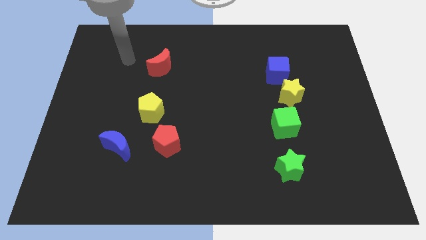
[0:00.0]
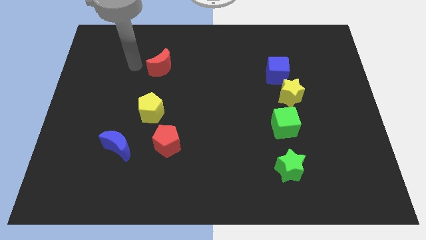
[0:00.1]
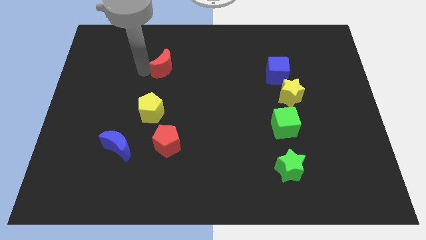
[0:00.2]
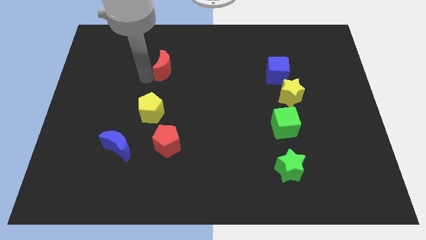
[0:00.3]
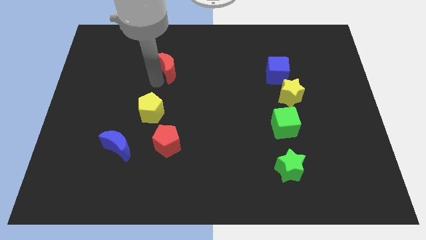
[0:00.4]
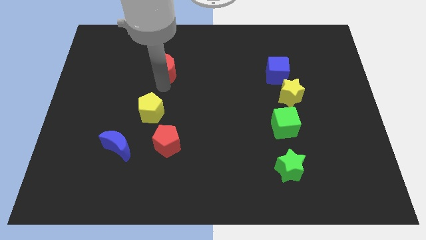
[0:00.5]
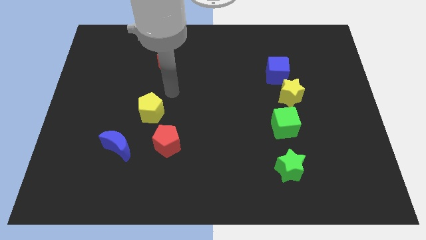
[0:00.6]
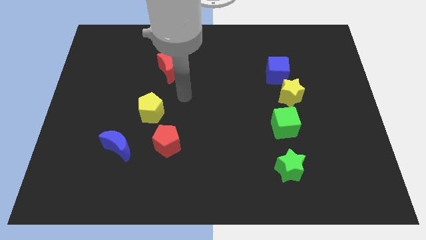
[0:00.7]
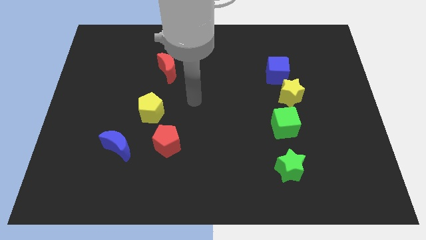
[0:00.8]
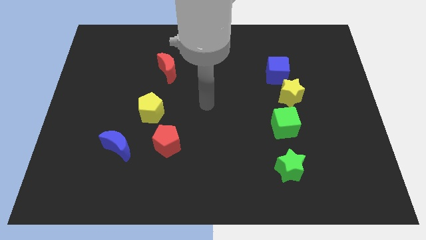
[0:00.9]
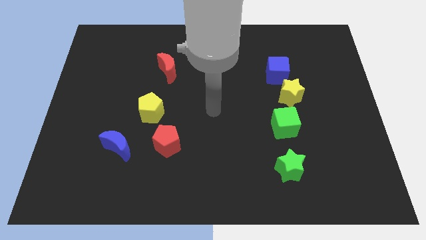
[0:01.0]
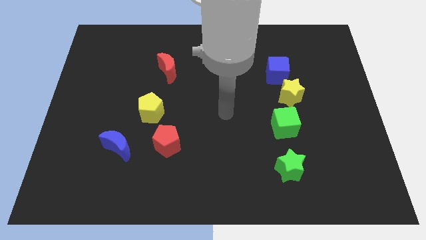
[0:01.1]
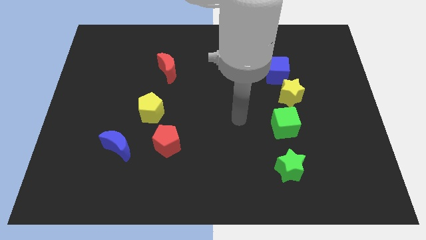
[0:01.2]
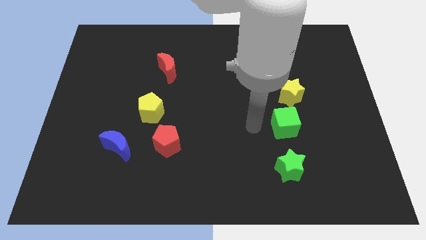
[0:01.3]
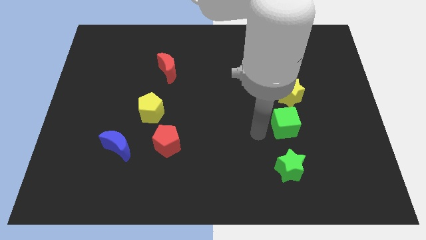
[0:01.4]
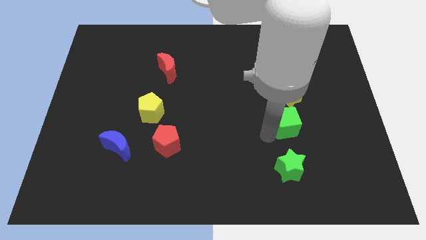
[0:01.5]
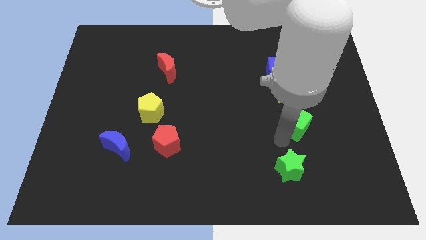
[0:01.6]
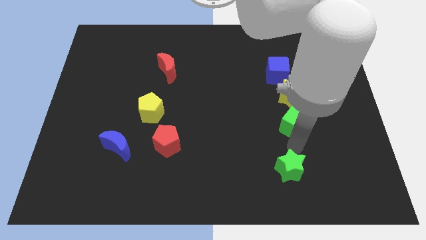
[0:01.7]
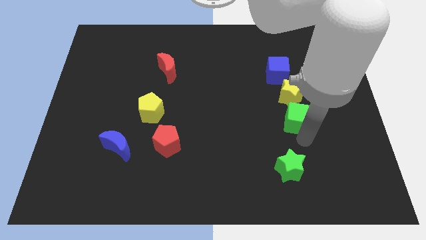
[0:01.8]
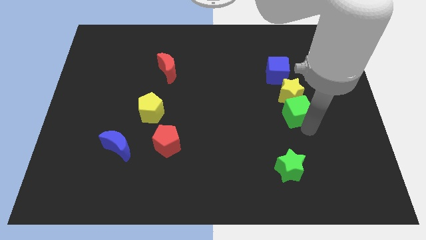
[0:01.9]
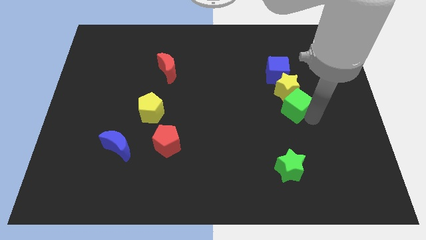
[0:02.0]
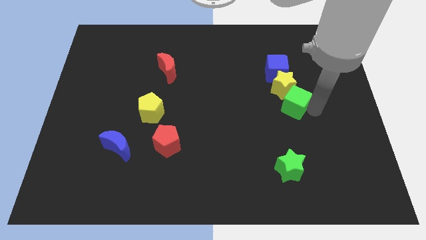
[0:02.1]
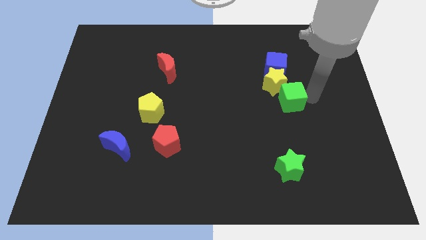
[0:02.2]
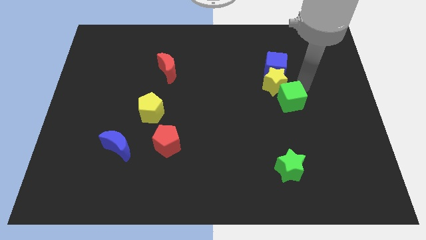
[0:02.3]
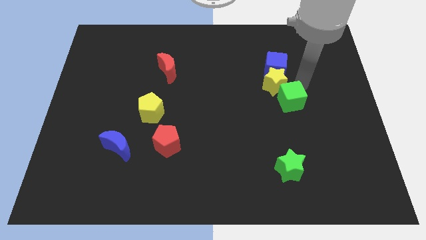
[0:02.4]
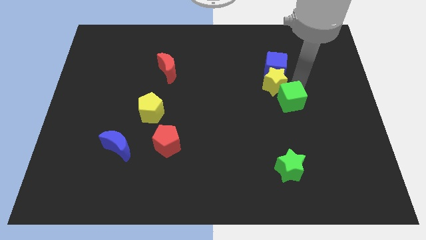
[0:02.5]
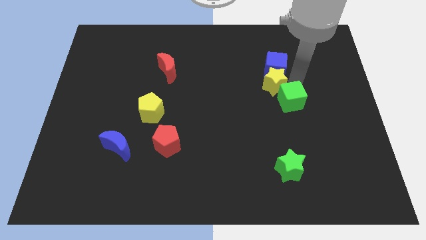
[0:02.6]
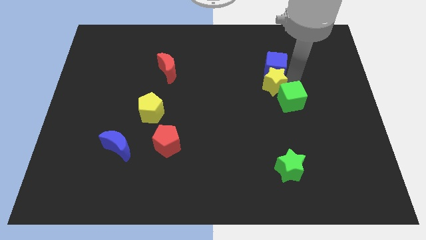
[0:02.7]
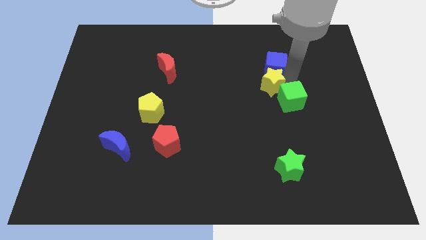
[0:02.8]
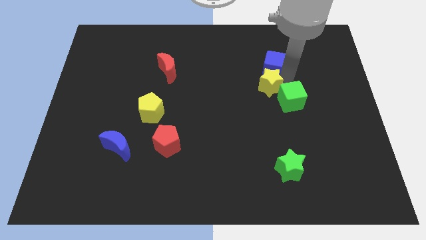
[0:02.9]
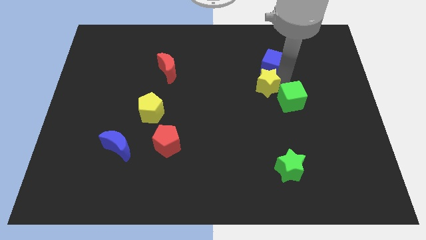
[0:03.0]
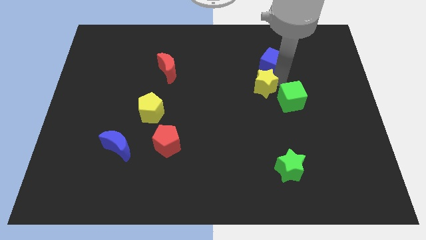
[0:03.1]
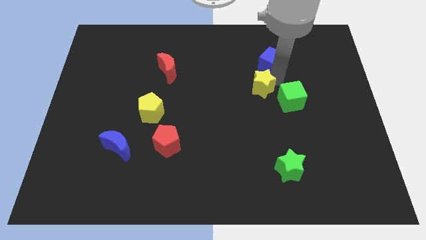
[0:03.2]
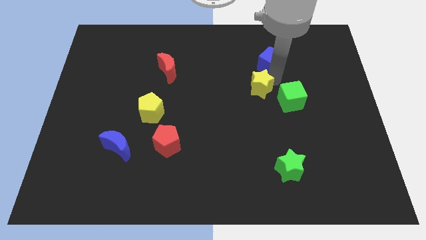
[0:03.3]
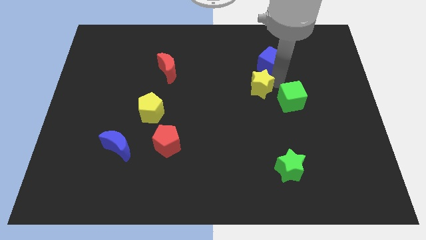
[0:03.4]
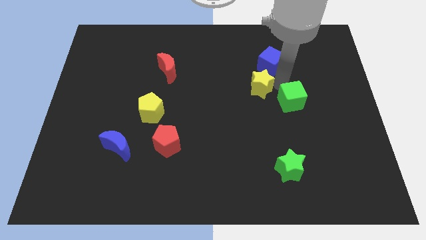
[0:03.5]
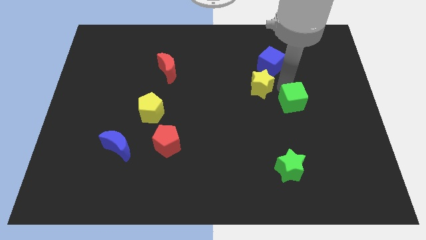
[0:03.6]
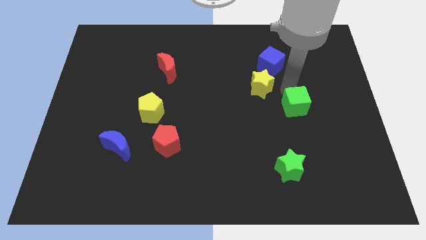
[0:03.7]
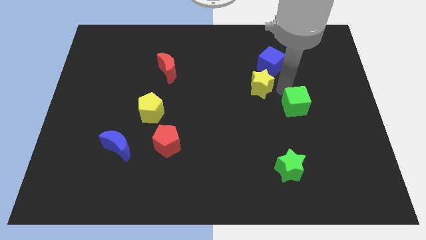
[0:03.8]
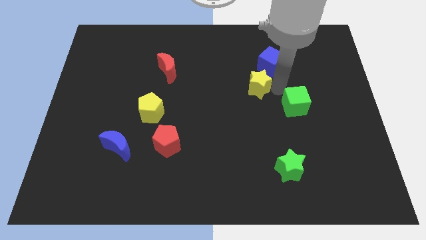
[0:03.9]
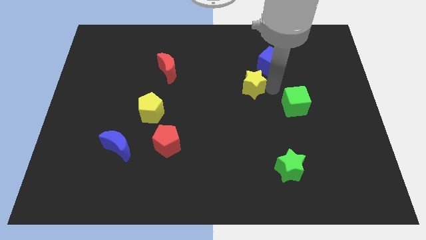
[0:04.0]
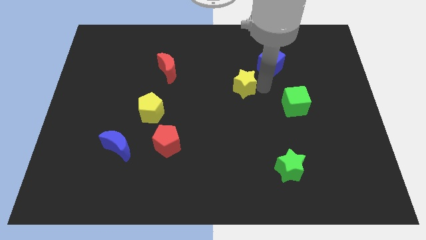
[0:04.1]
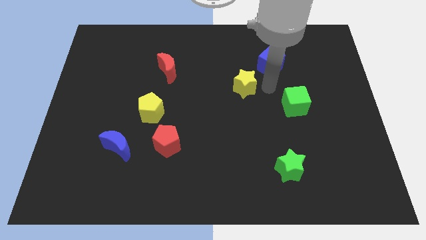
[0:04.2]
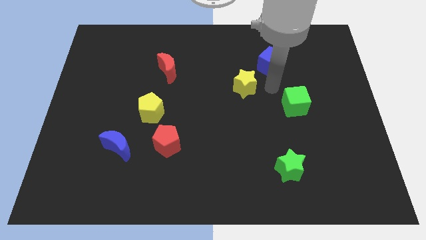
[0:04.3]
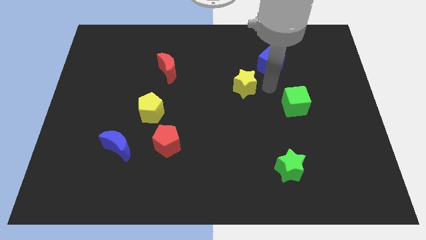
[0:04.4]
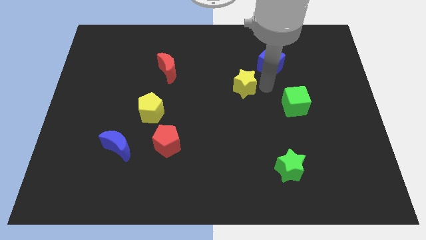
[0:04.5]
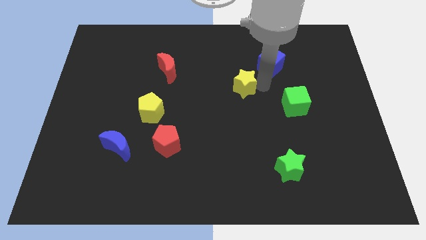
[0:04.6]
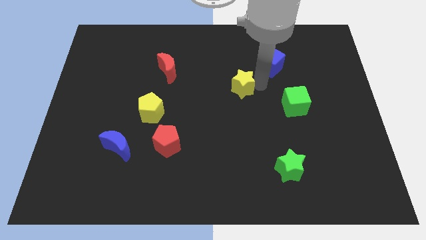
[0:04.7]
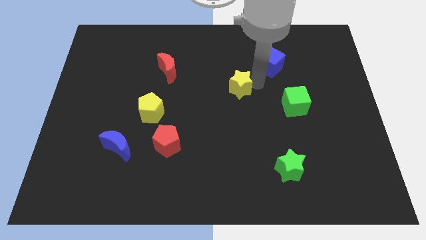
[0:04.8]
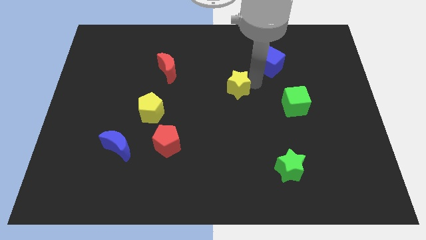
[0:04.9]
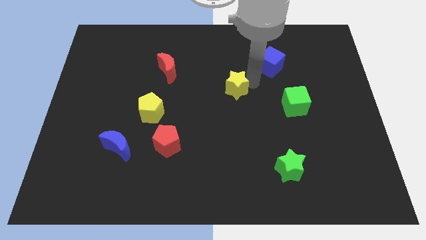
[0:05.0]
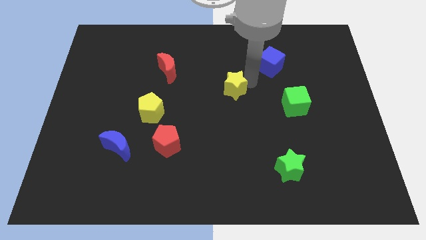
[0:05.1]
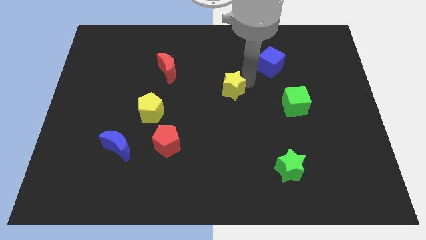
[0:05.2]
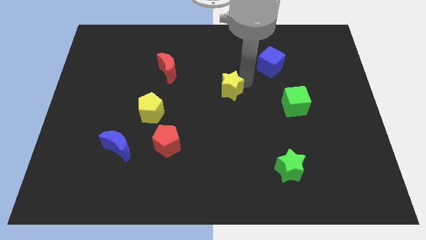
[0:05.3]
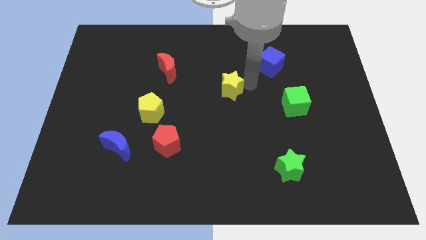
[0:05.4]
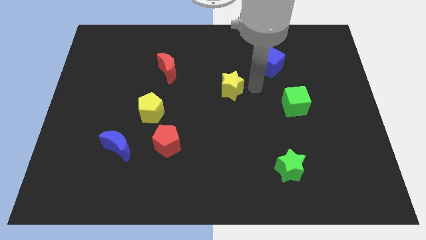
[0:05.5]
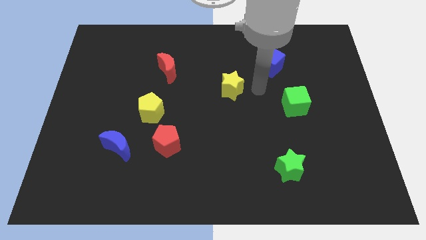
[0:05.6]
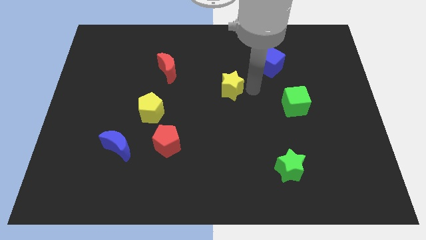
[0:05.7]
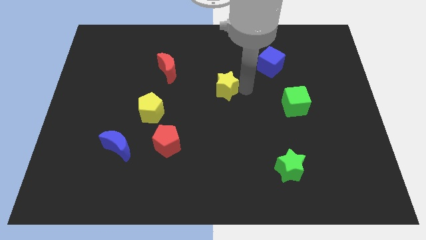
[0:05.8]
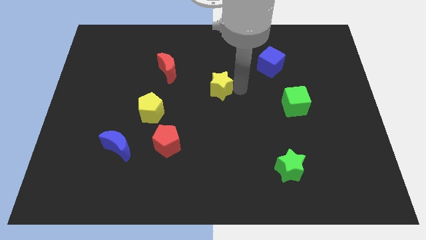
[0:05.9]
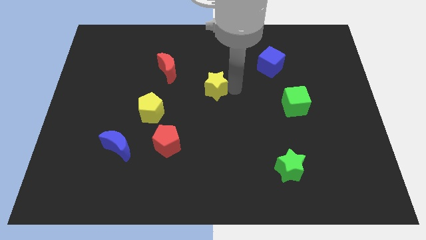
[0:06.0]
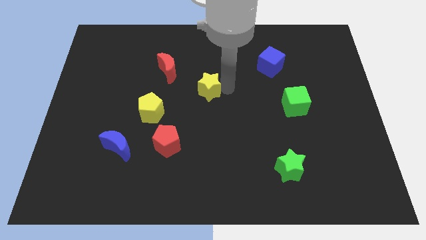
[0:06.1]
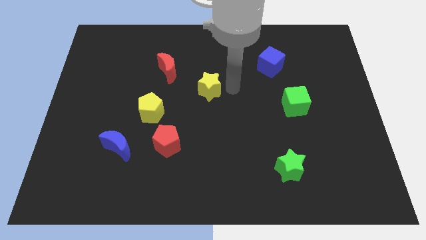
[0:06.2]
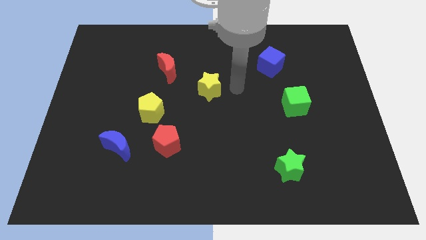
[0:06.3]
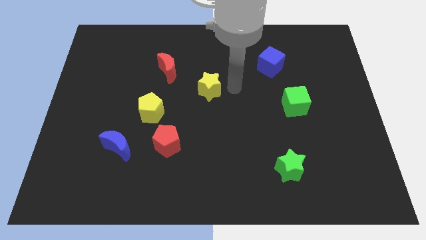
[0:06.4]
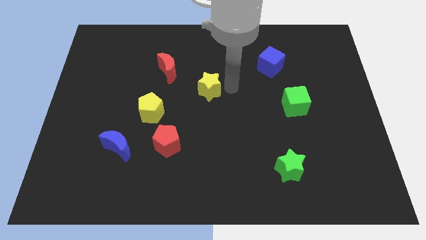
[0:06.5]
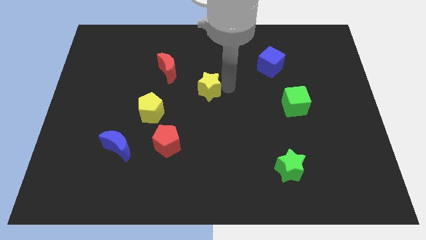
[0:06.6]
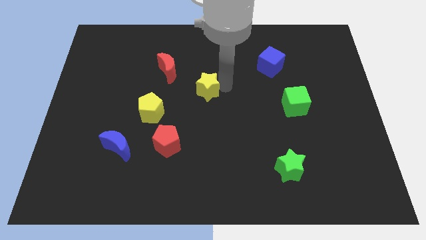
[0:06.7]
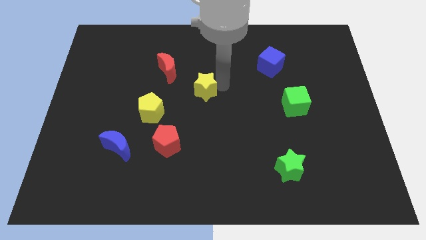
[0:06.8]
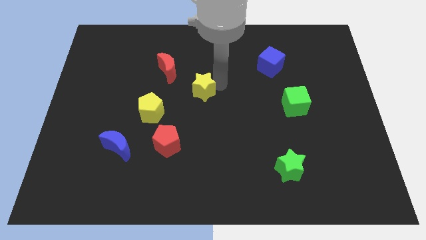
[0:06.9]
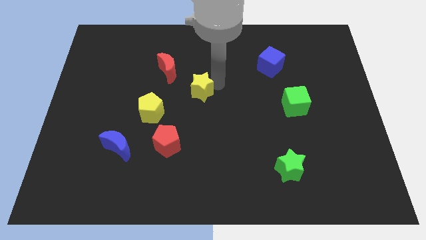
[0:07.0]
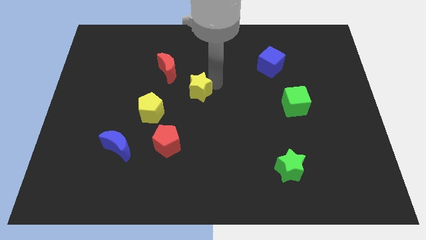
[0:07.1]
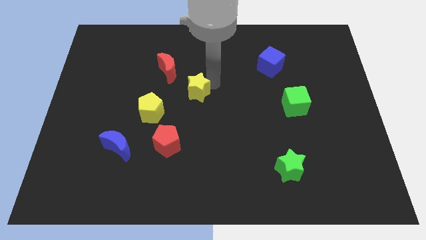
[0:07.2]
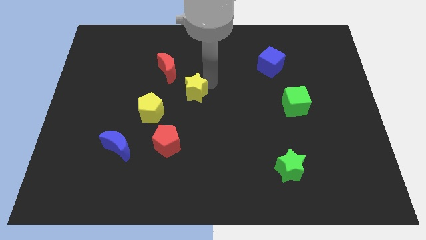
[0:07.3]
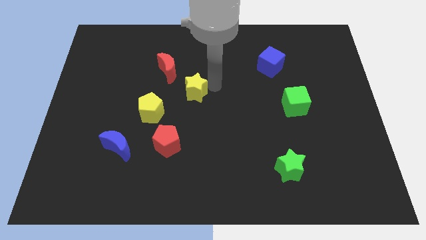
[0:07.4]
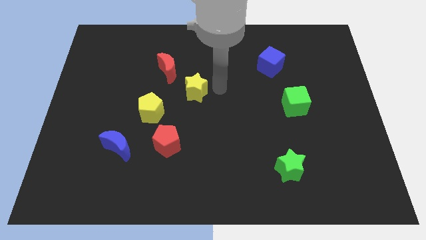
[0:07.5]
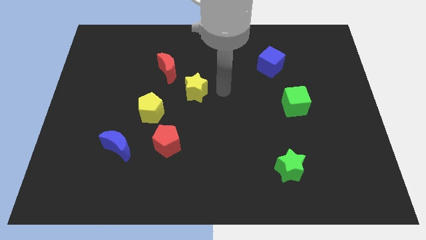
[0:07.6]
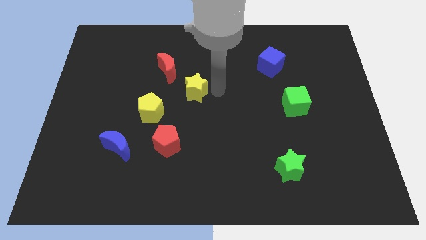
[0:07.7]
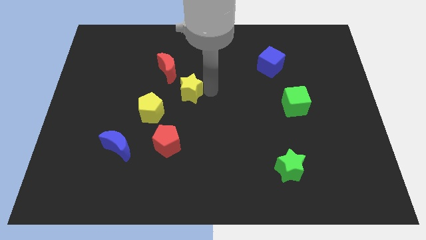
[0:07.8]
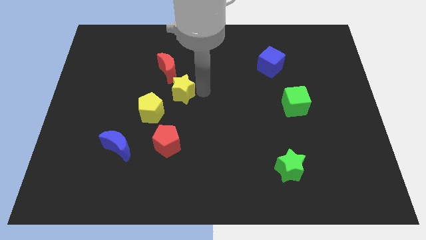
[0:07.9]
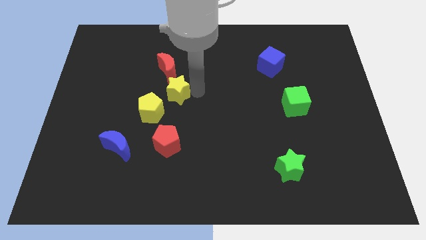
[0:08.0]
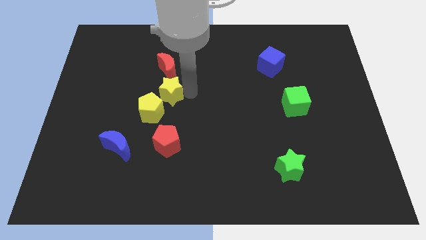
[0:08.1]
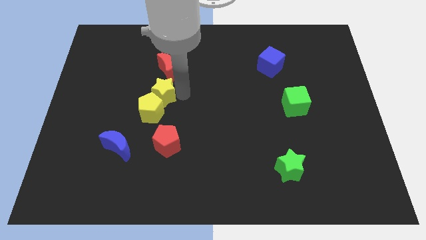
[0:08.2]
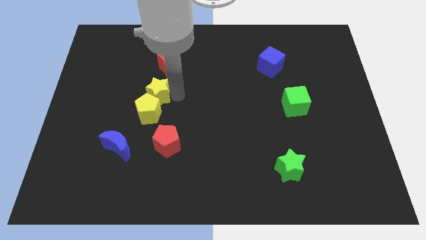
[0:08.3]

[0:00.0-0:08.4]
push the yellow star to the bottom left side of the red moon
